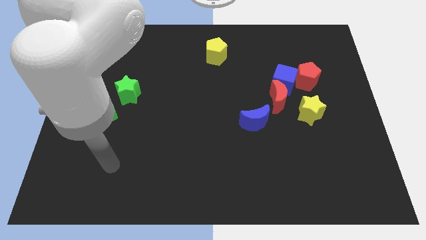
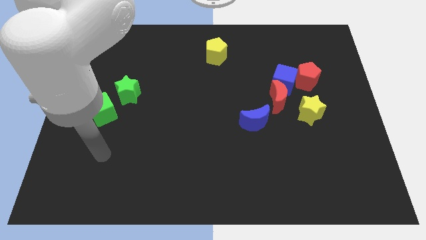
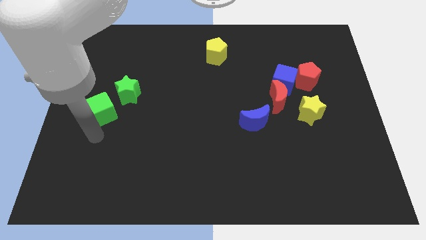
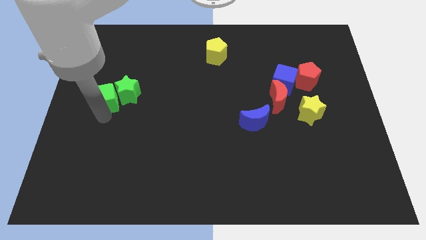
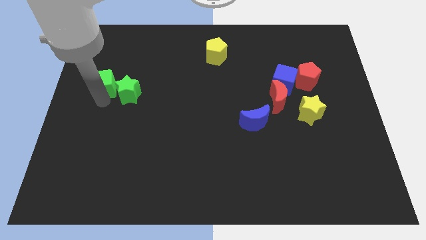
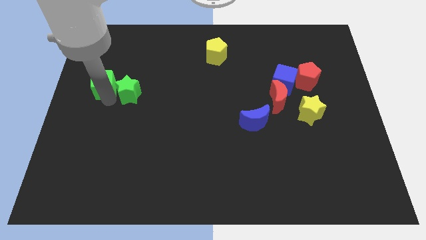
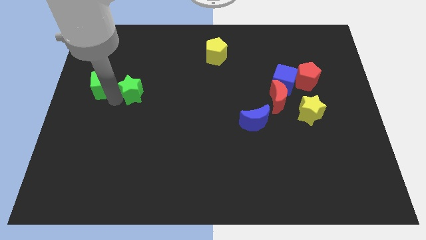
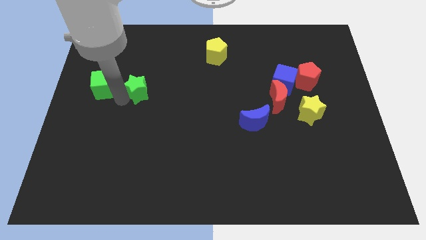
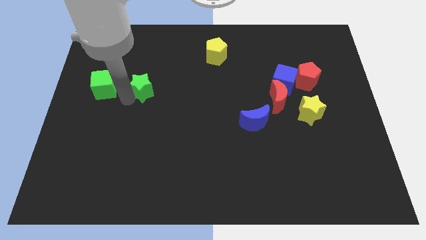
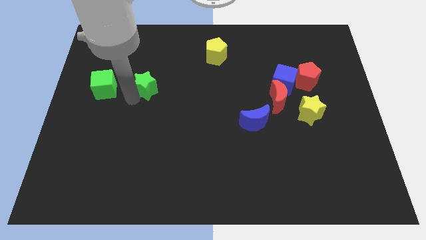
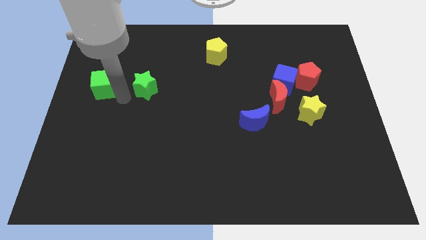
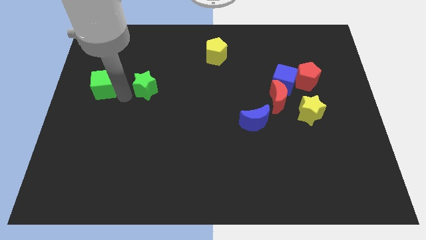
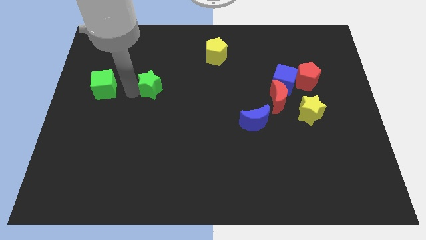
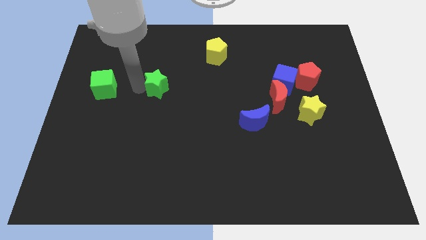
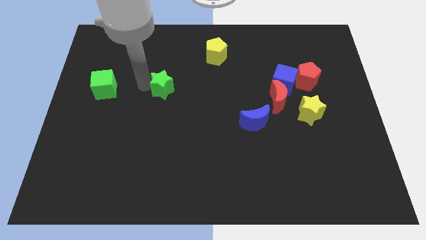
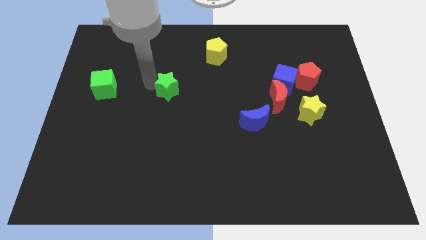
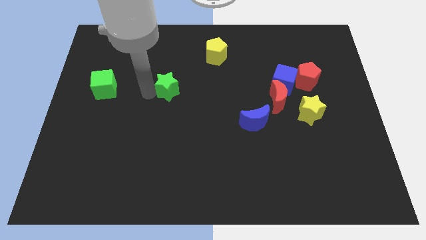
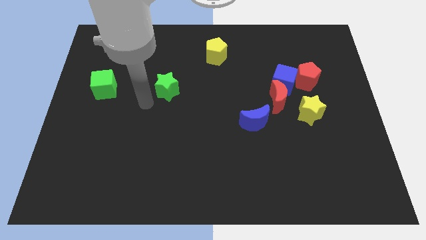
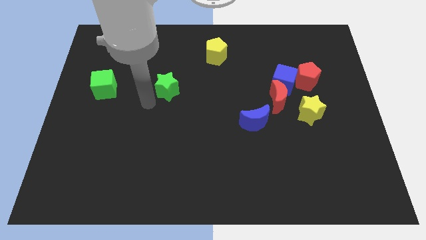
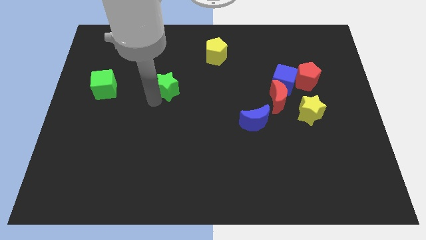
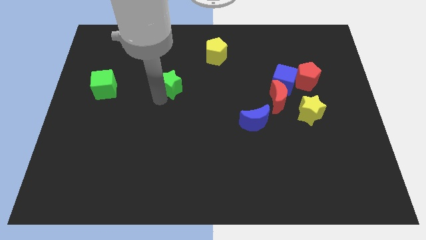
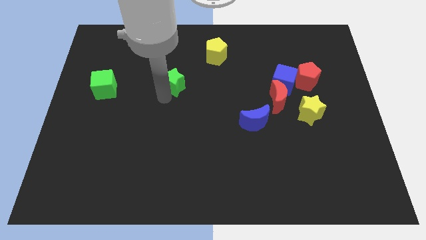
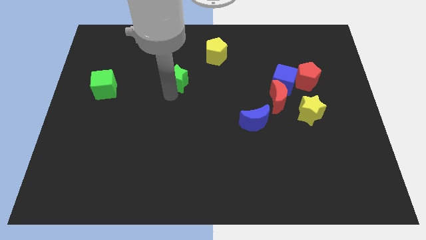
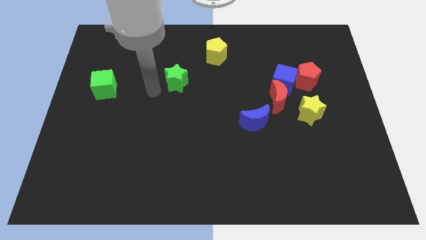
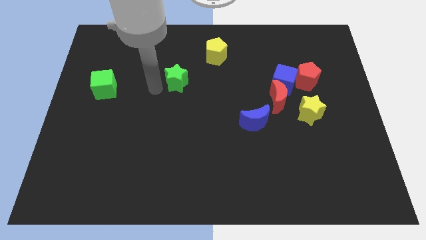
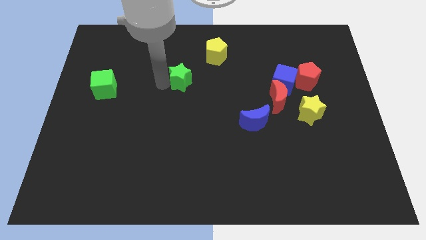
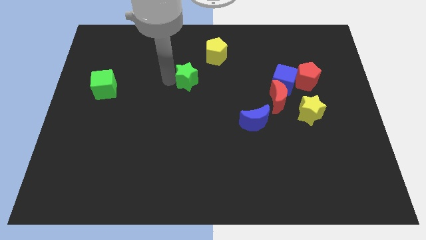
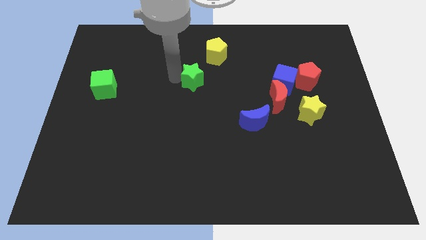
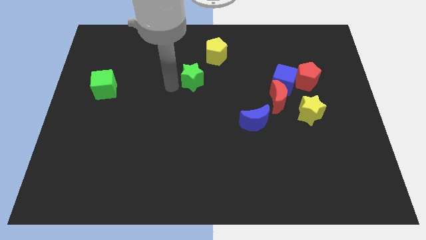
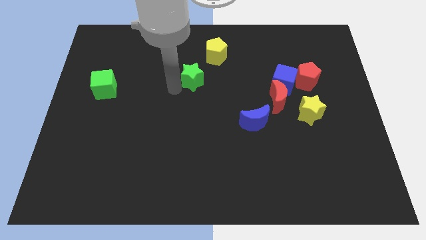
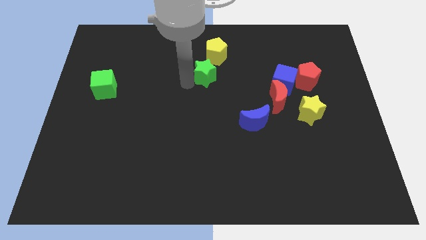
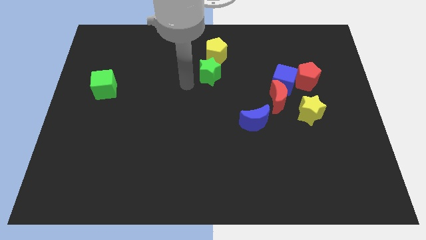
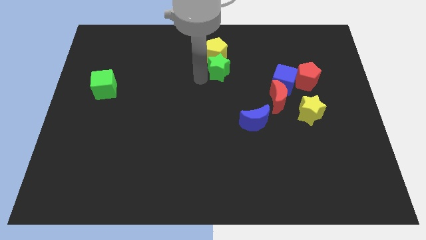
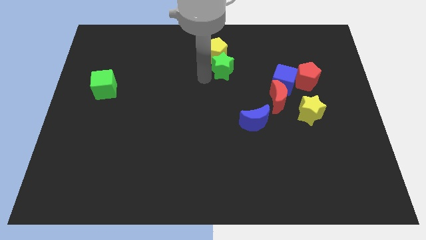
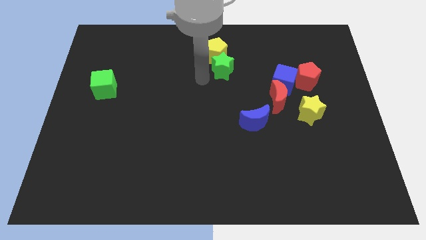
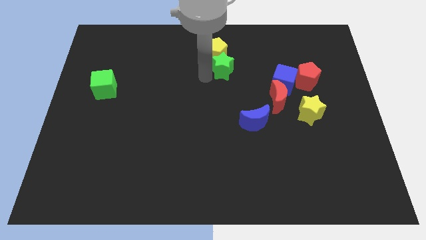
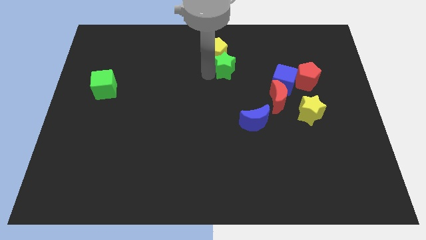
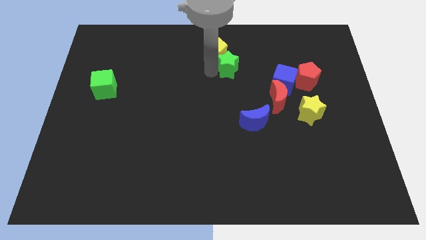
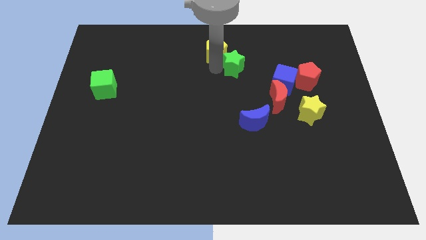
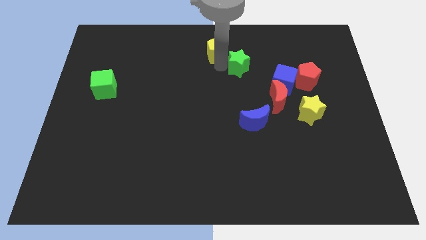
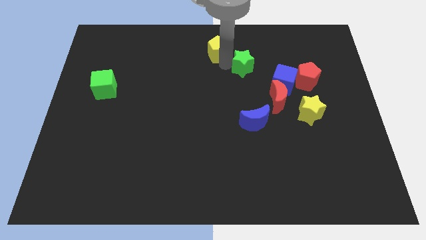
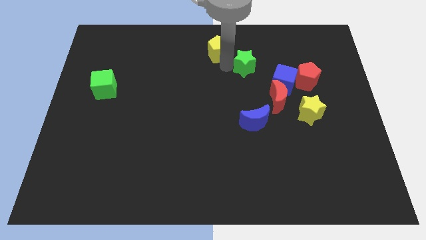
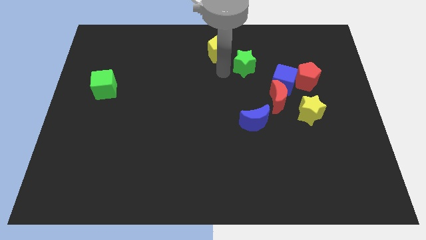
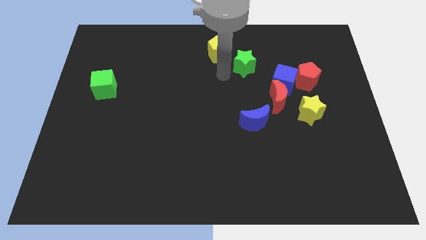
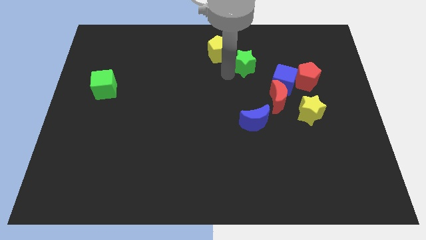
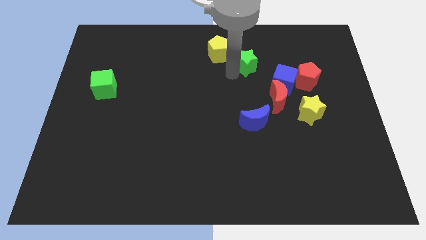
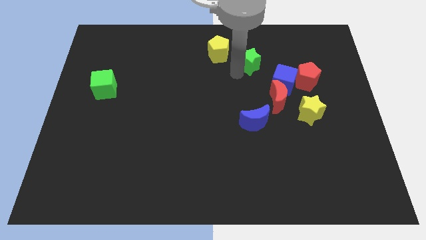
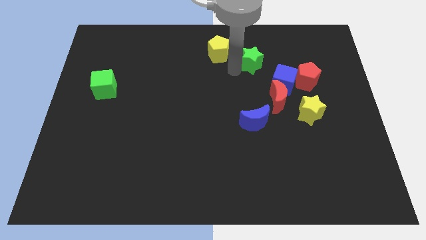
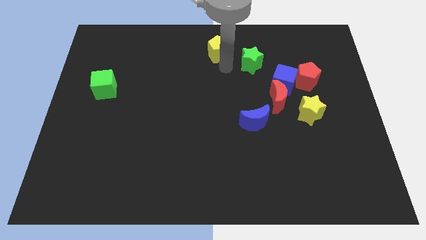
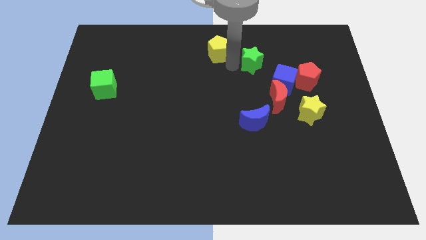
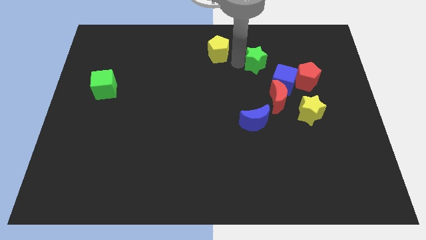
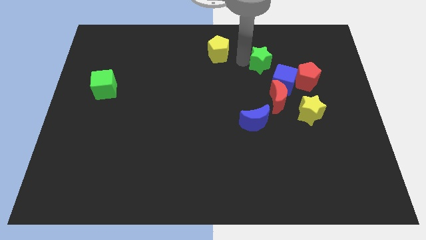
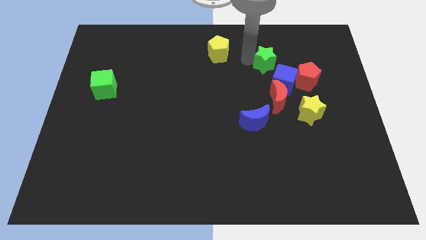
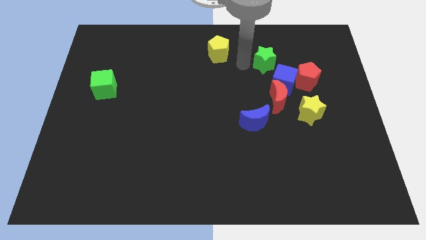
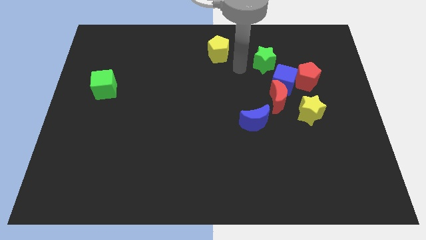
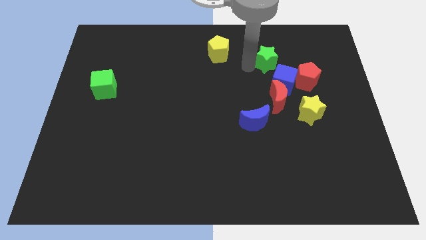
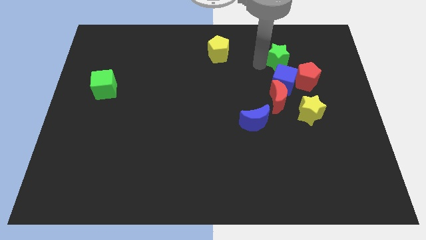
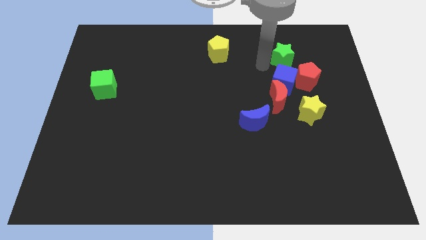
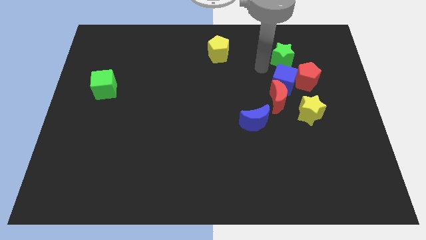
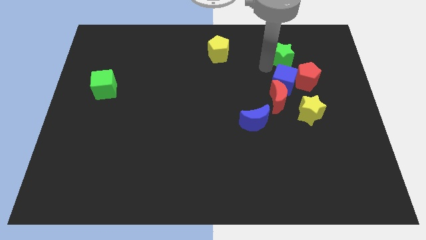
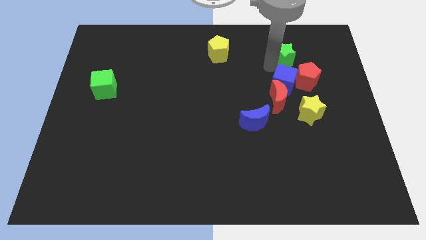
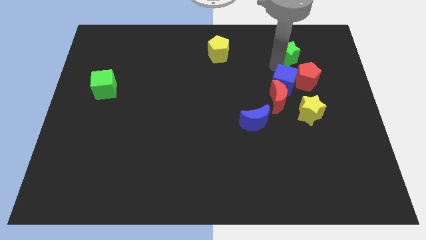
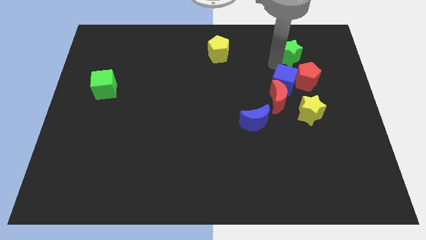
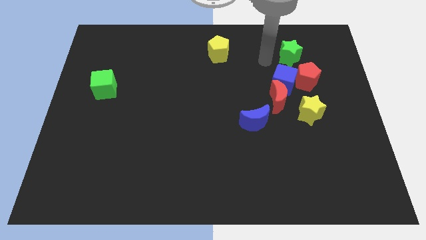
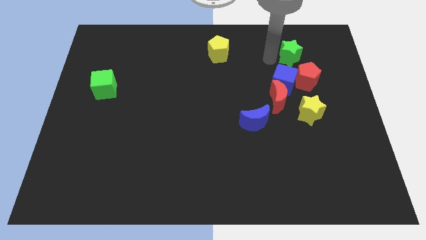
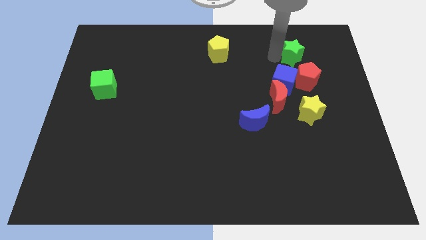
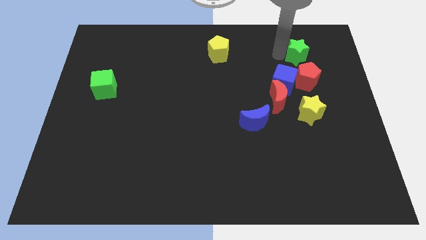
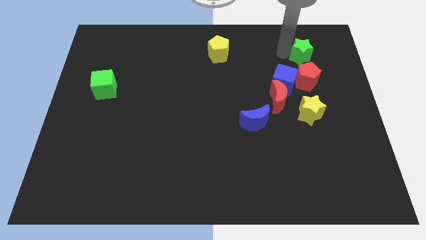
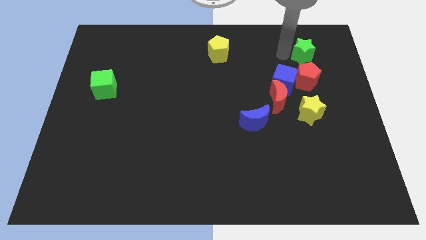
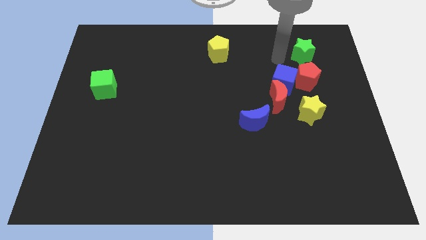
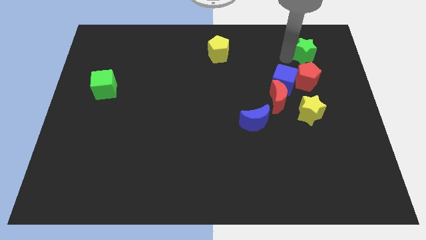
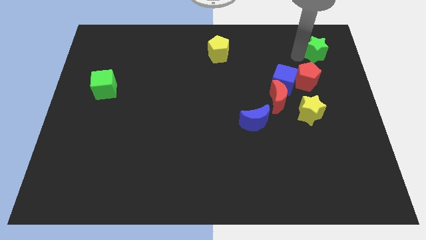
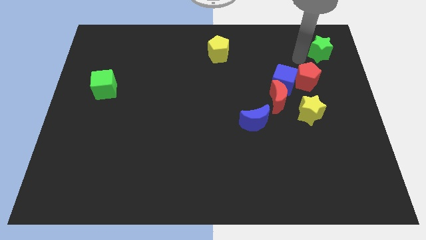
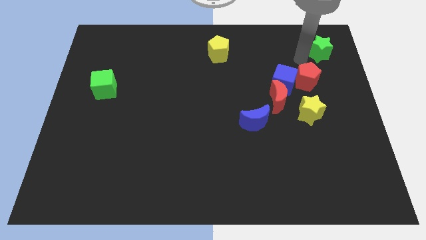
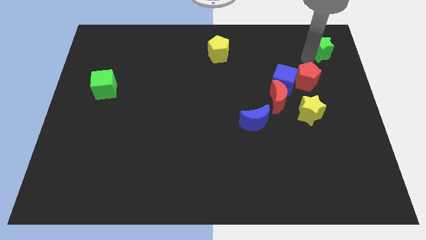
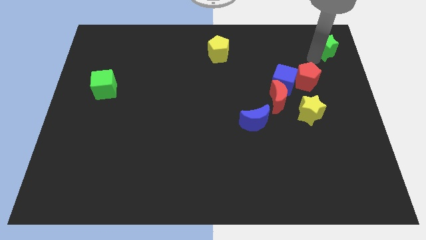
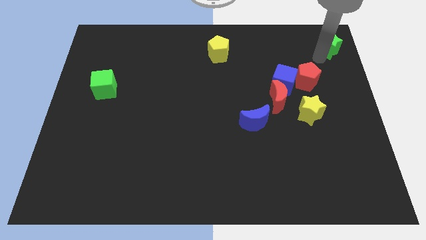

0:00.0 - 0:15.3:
slide the green star to the top right corner
